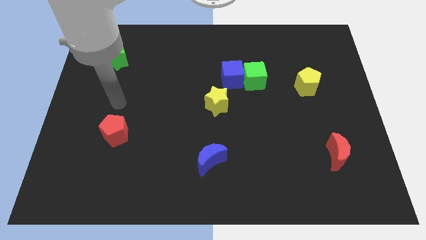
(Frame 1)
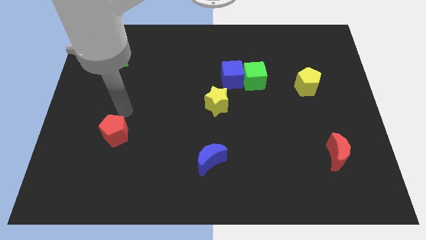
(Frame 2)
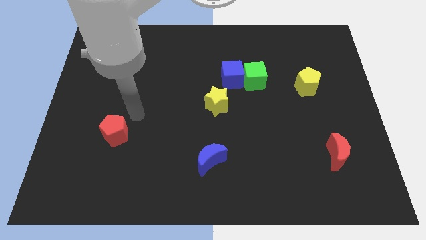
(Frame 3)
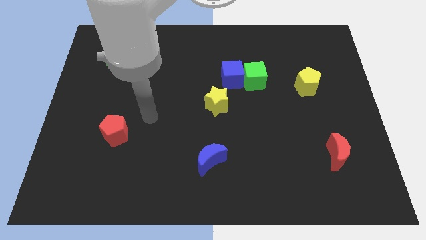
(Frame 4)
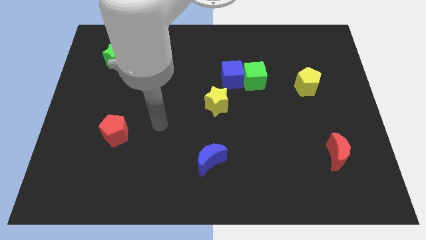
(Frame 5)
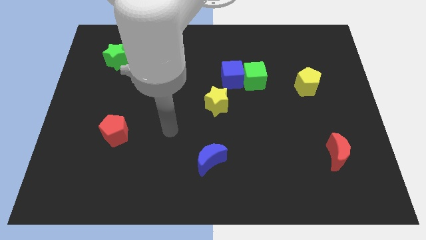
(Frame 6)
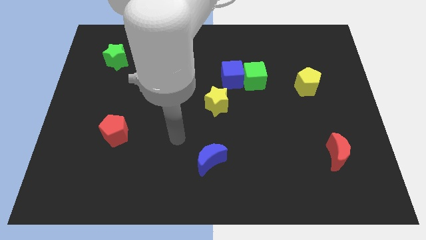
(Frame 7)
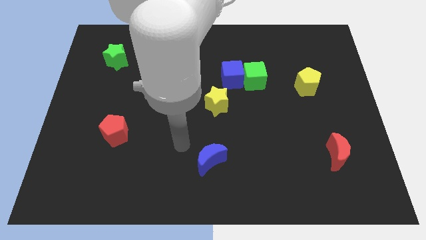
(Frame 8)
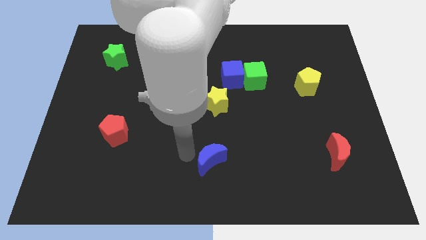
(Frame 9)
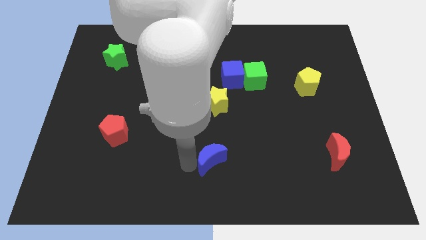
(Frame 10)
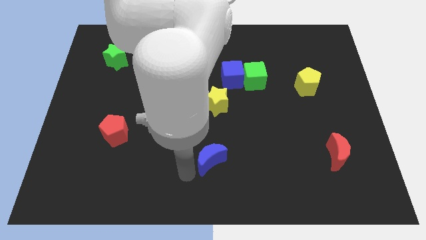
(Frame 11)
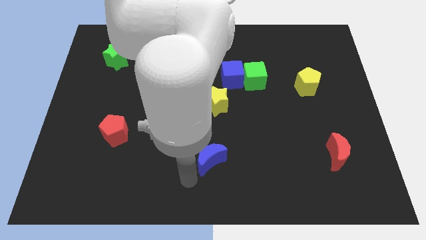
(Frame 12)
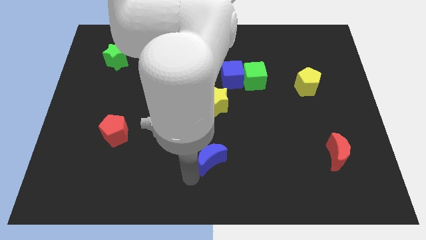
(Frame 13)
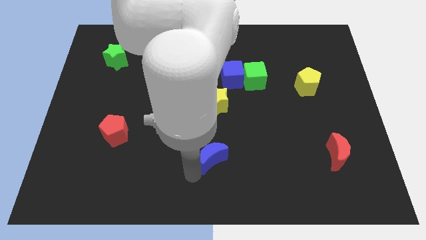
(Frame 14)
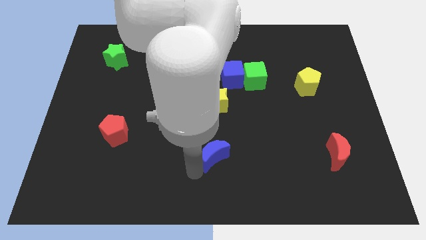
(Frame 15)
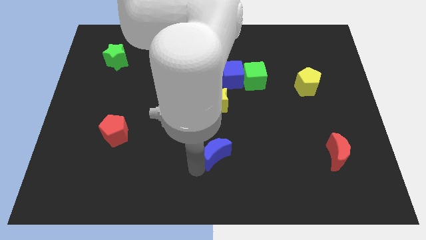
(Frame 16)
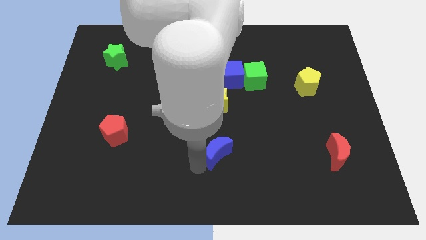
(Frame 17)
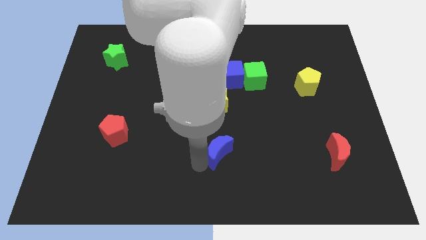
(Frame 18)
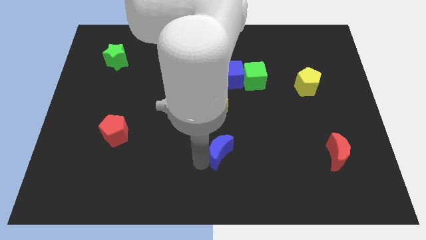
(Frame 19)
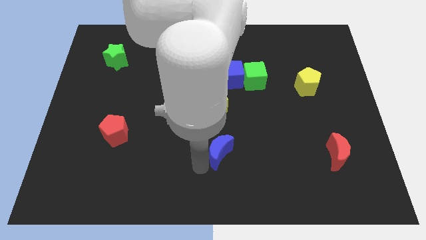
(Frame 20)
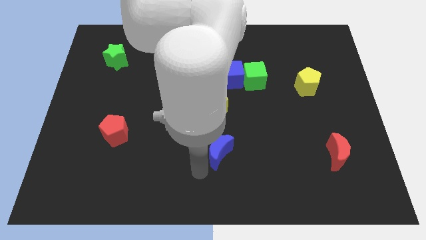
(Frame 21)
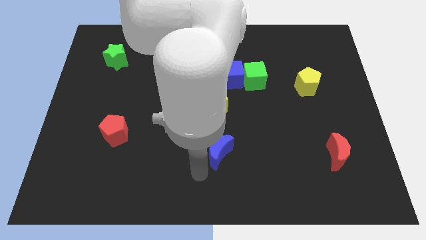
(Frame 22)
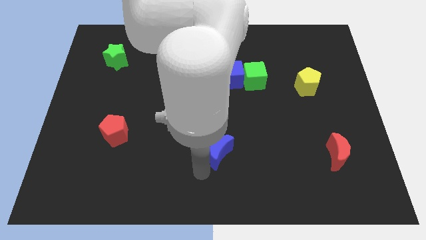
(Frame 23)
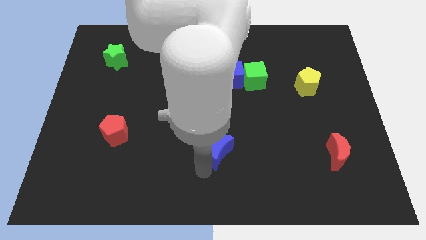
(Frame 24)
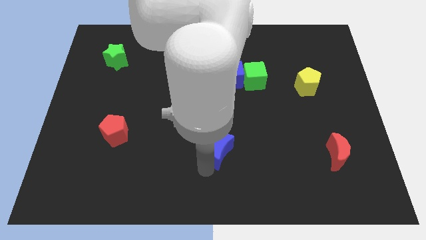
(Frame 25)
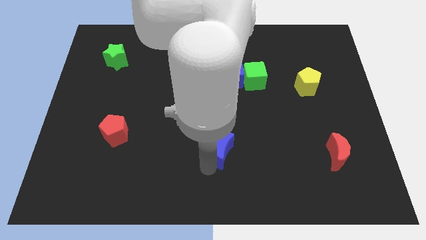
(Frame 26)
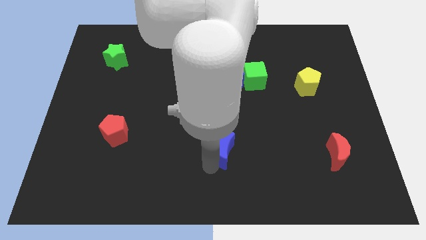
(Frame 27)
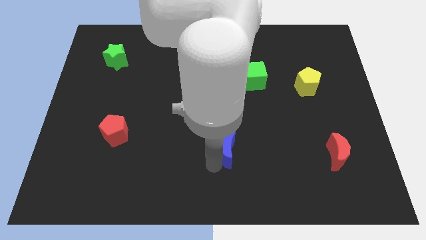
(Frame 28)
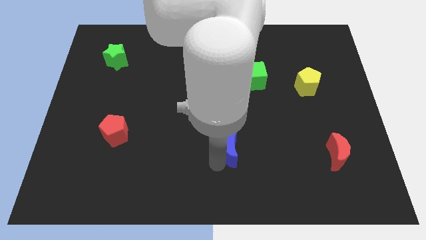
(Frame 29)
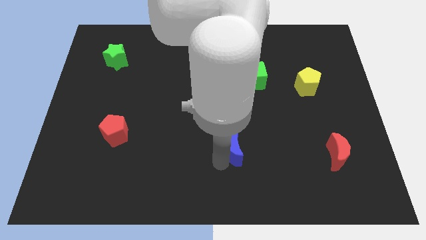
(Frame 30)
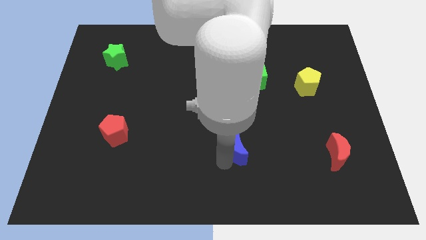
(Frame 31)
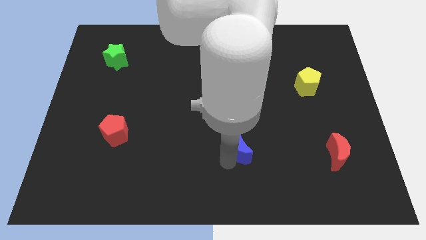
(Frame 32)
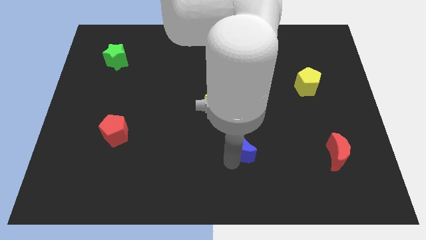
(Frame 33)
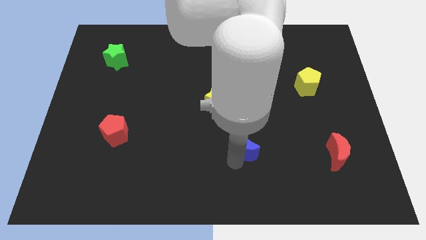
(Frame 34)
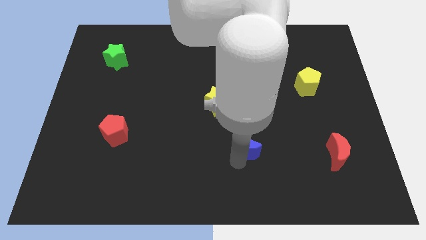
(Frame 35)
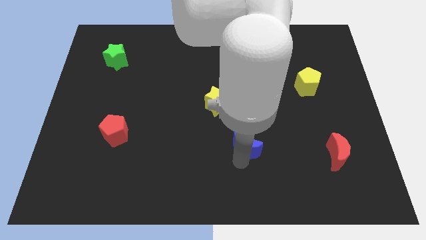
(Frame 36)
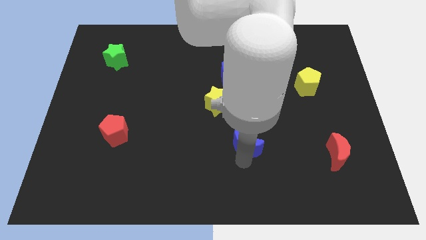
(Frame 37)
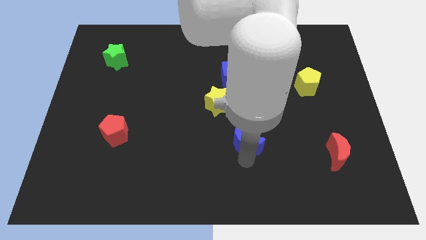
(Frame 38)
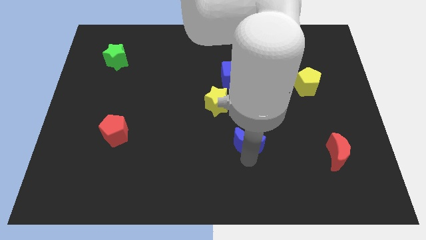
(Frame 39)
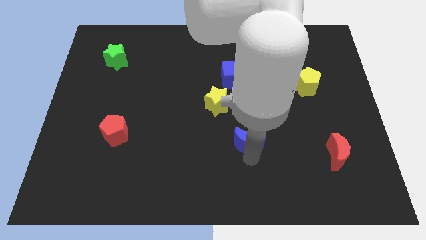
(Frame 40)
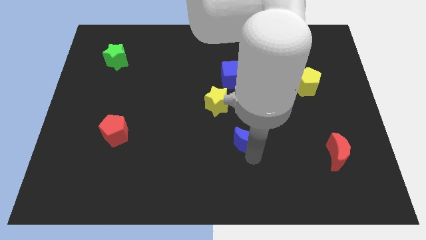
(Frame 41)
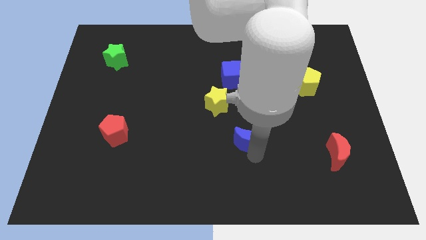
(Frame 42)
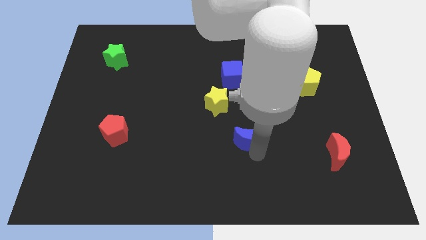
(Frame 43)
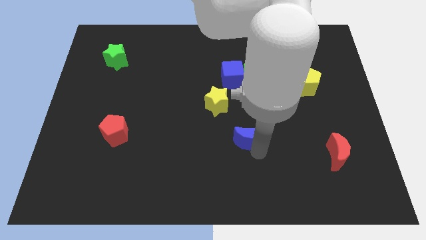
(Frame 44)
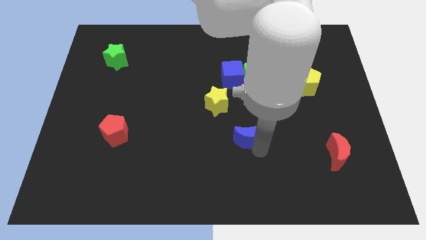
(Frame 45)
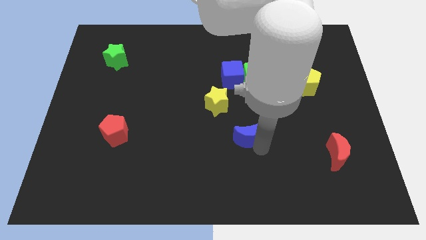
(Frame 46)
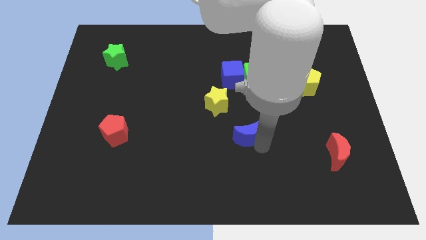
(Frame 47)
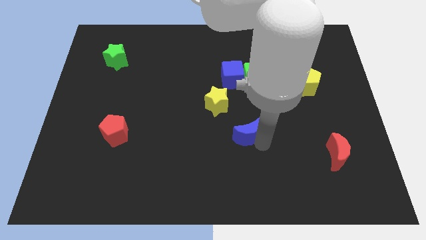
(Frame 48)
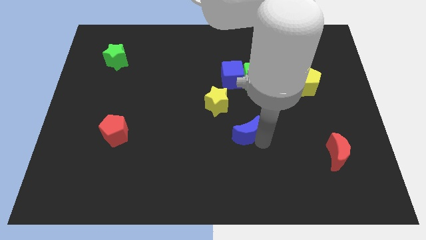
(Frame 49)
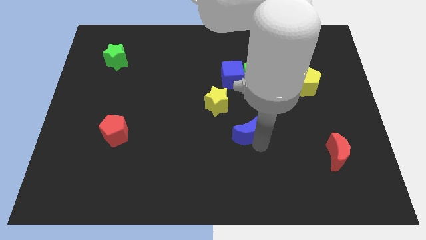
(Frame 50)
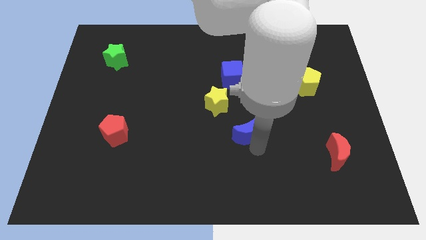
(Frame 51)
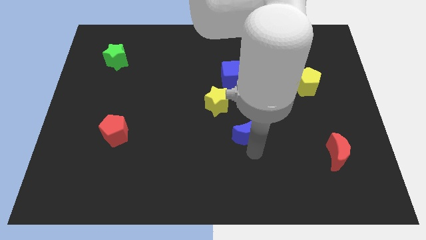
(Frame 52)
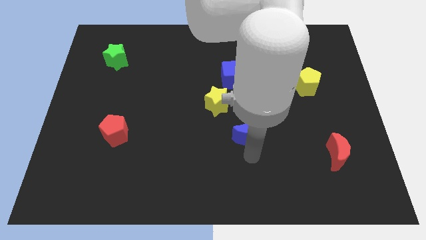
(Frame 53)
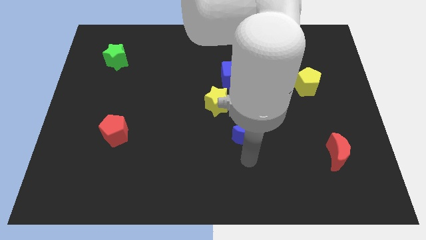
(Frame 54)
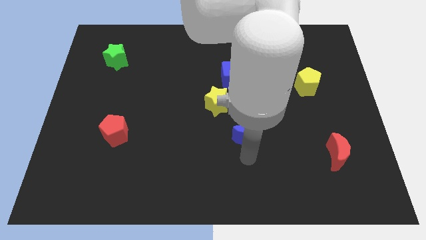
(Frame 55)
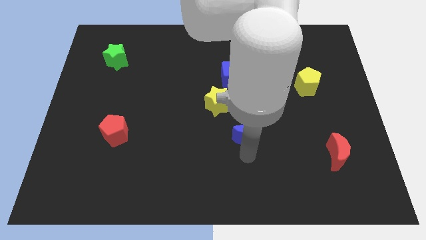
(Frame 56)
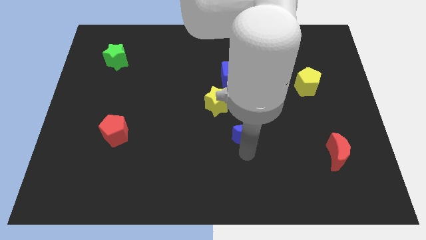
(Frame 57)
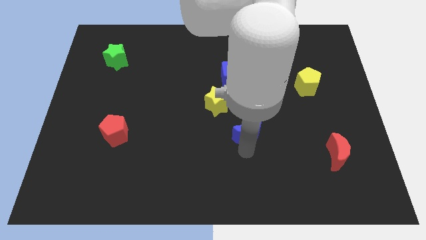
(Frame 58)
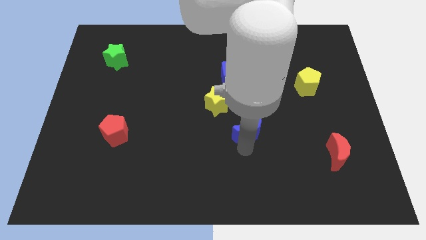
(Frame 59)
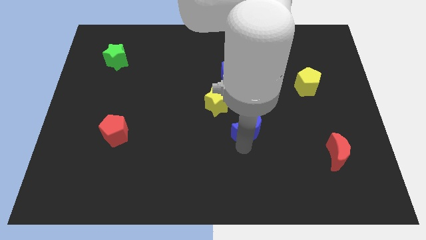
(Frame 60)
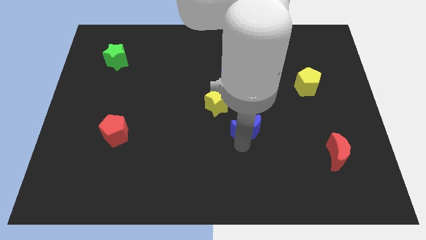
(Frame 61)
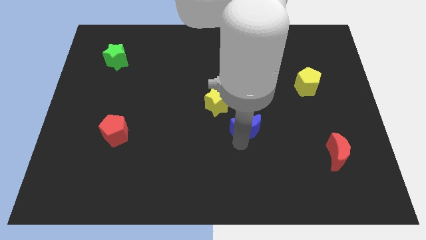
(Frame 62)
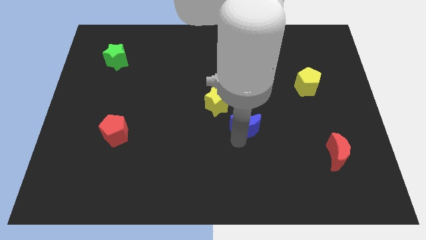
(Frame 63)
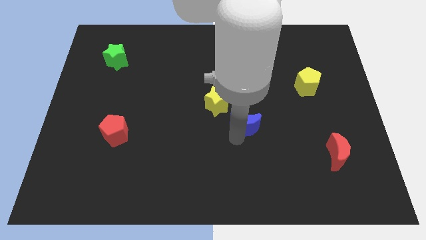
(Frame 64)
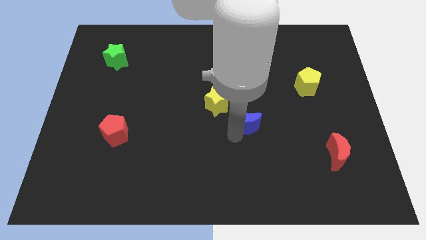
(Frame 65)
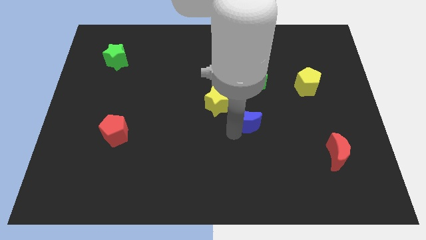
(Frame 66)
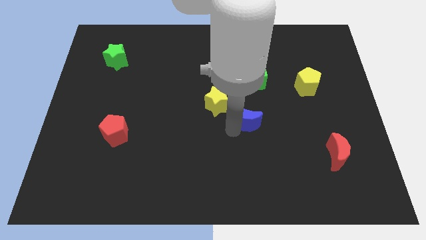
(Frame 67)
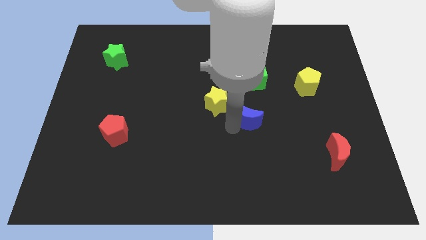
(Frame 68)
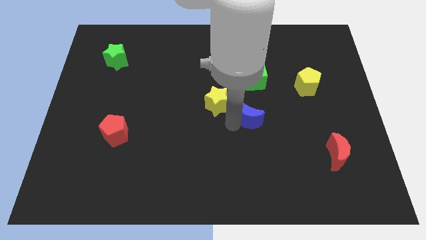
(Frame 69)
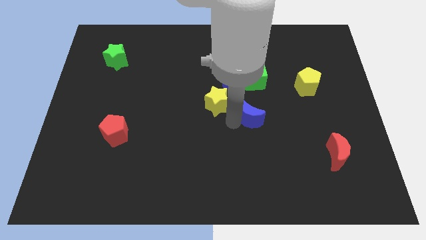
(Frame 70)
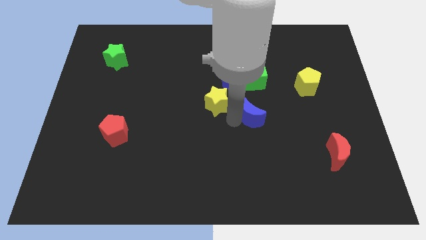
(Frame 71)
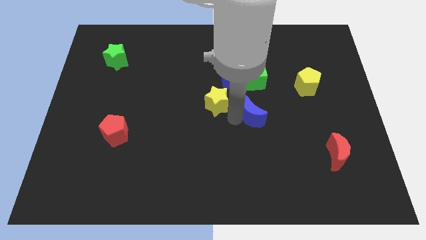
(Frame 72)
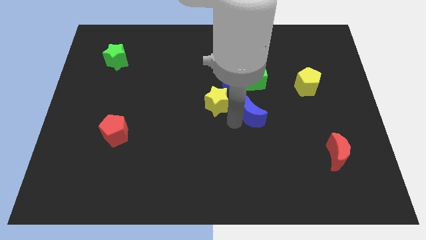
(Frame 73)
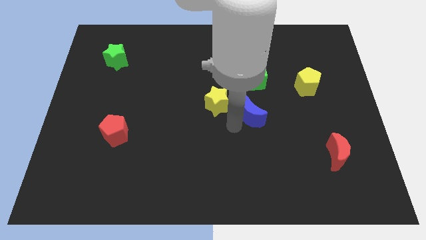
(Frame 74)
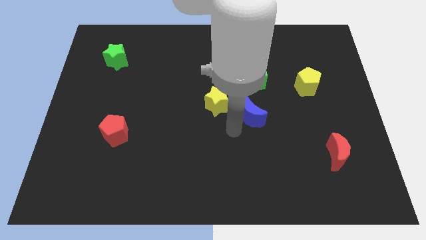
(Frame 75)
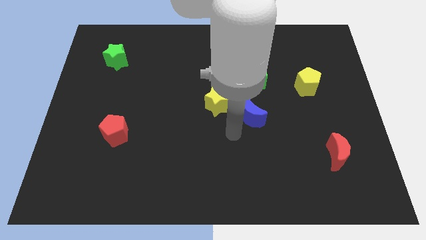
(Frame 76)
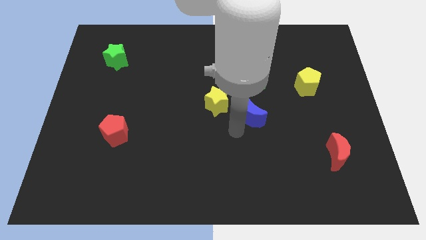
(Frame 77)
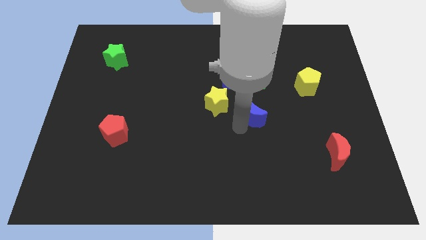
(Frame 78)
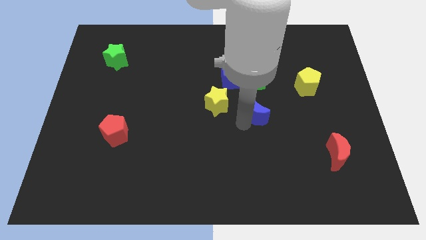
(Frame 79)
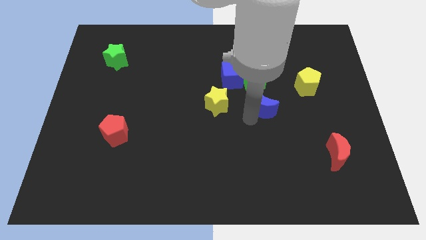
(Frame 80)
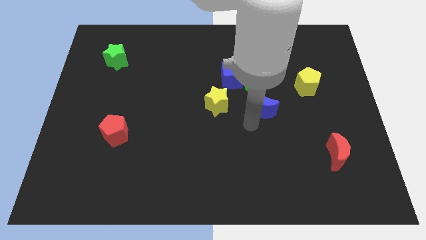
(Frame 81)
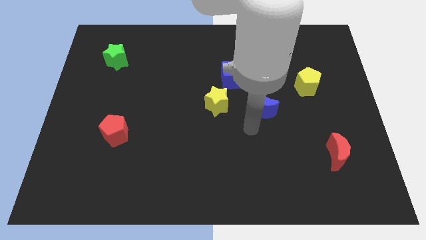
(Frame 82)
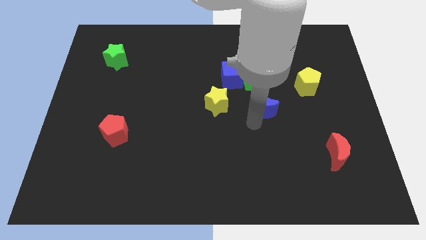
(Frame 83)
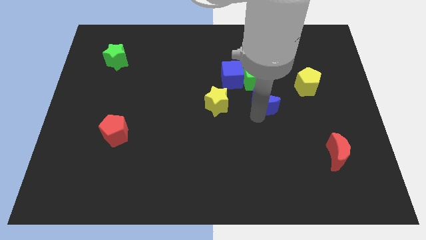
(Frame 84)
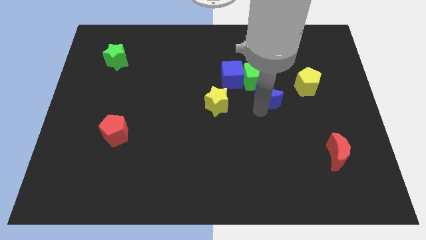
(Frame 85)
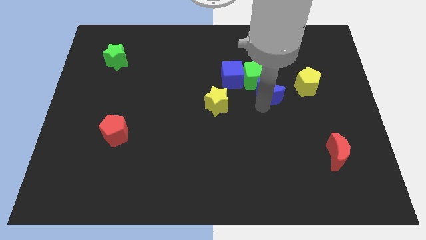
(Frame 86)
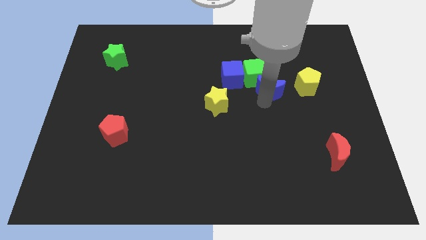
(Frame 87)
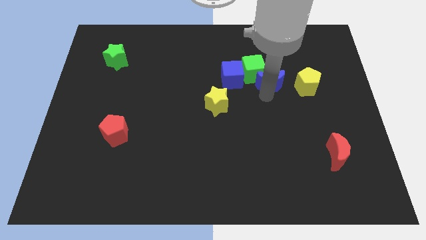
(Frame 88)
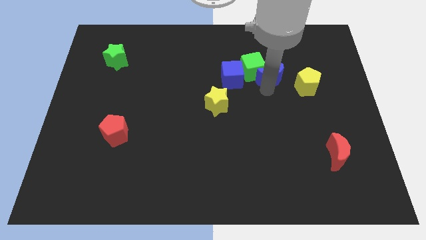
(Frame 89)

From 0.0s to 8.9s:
slide the blue moon to the top left side of the yellow pentagon
